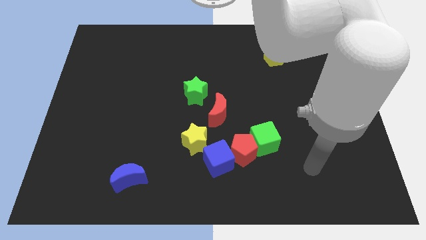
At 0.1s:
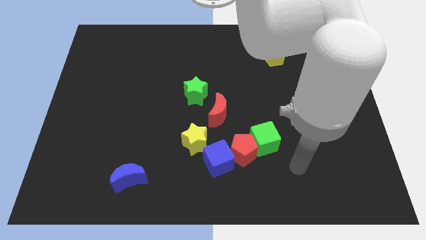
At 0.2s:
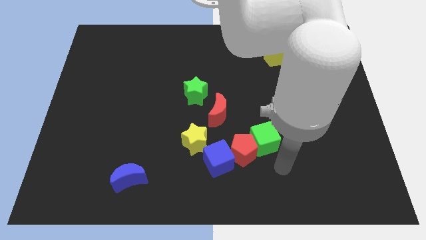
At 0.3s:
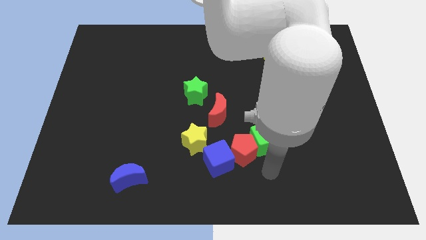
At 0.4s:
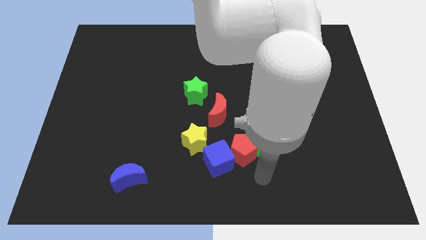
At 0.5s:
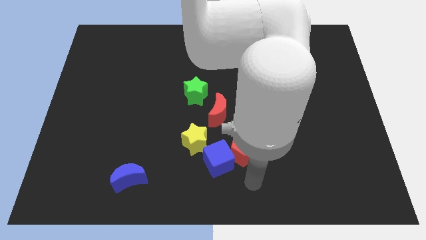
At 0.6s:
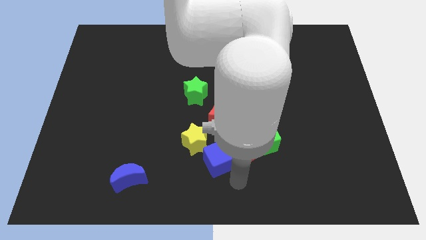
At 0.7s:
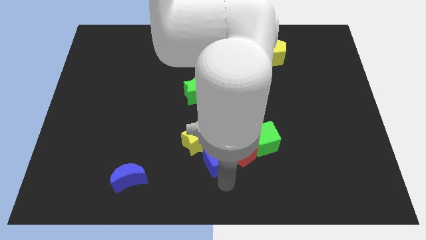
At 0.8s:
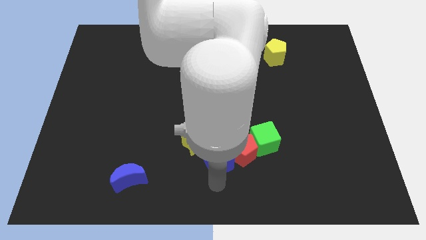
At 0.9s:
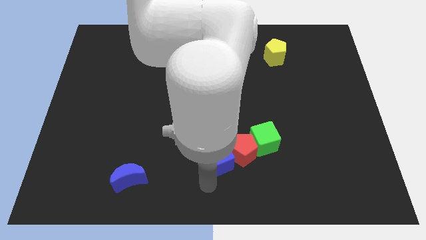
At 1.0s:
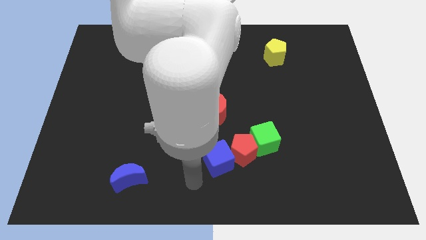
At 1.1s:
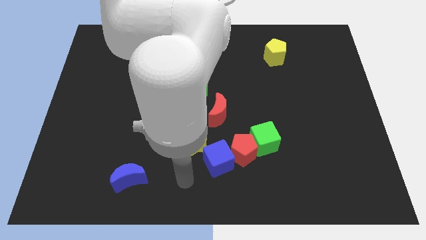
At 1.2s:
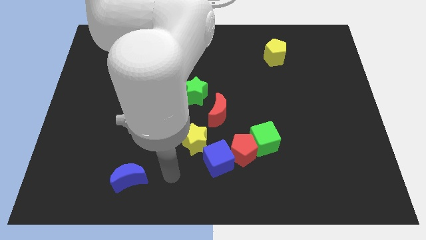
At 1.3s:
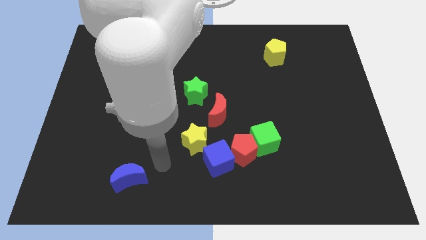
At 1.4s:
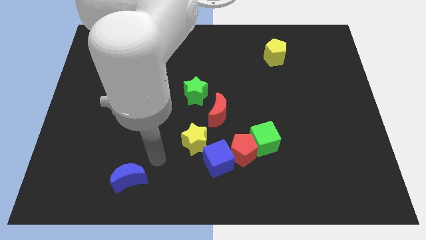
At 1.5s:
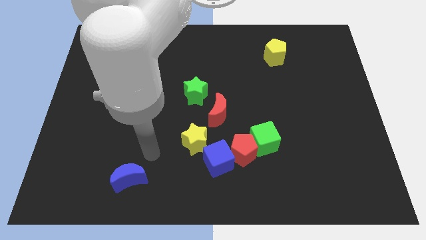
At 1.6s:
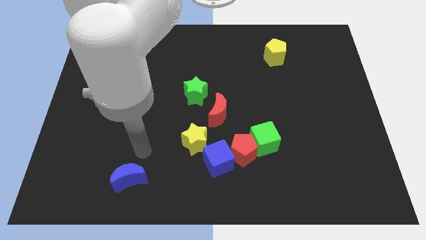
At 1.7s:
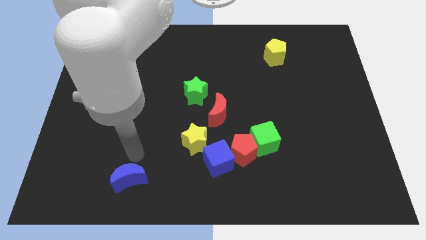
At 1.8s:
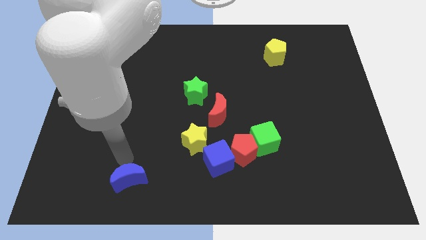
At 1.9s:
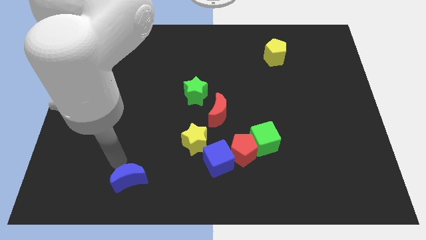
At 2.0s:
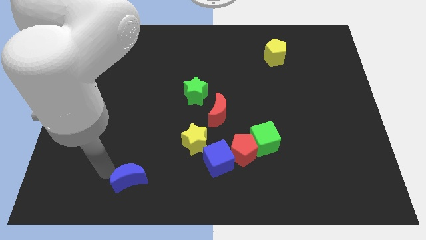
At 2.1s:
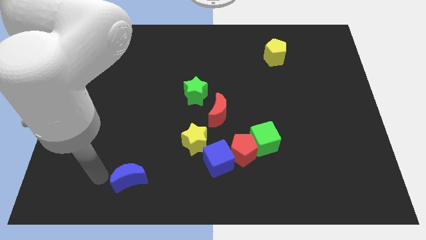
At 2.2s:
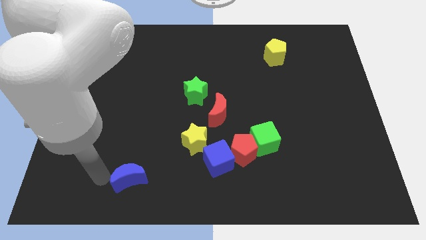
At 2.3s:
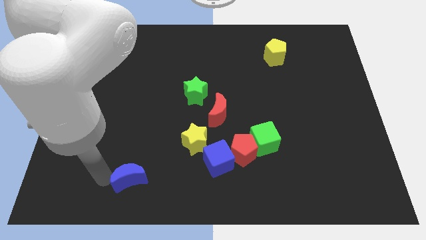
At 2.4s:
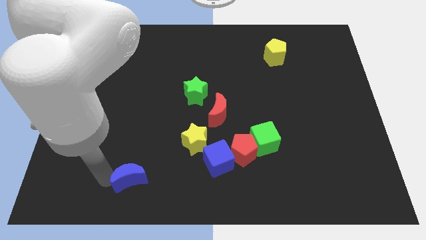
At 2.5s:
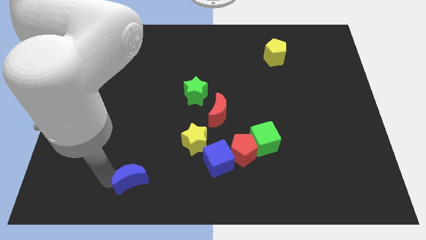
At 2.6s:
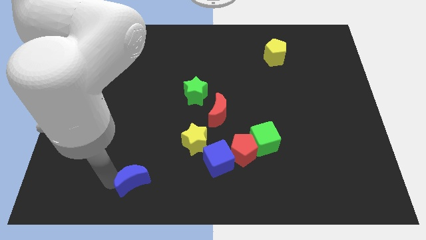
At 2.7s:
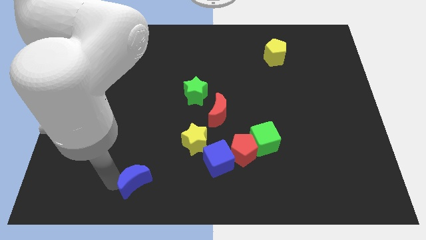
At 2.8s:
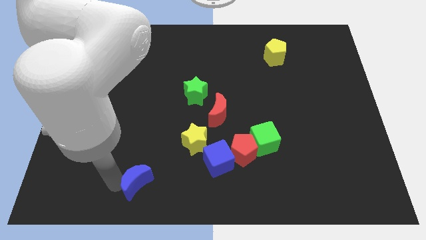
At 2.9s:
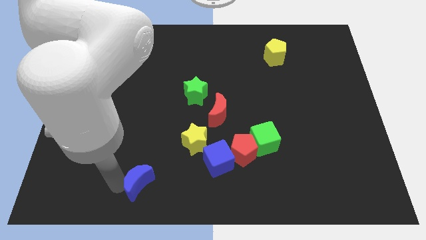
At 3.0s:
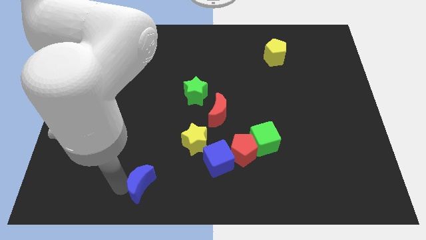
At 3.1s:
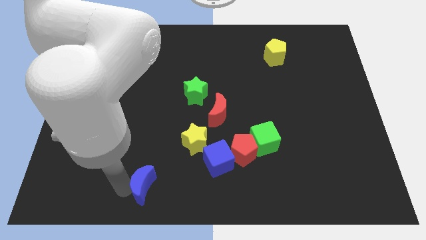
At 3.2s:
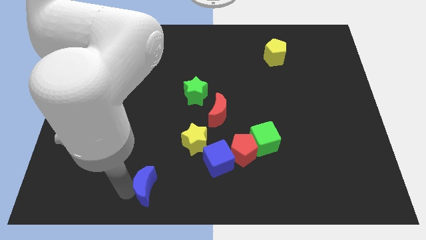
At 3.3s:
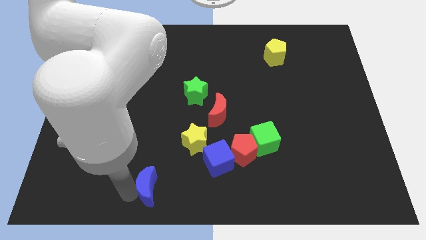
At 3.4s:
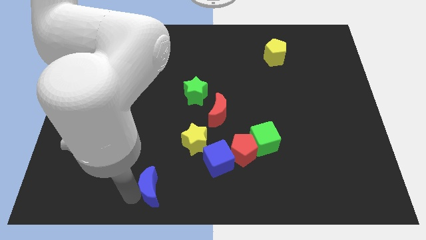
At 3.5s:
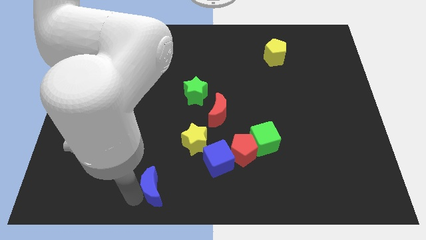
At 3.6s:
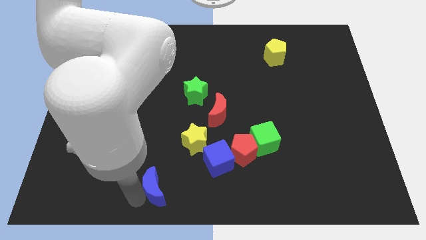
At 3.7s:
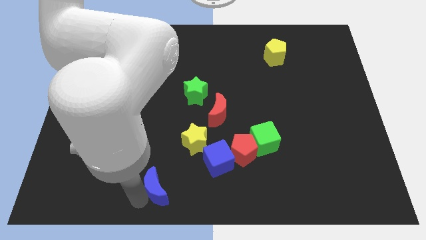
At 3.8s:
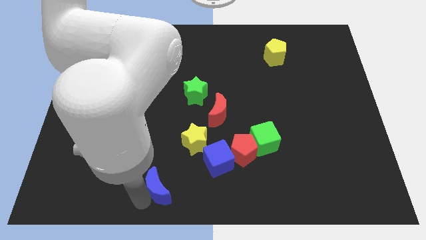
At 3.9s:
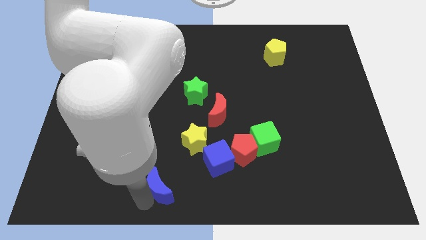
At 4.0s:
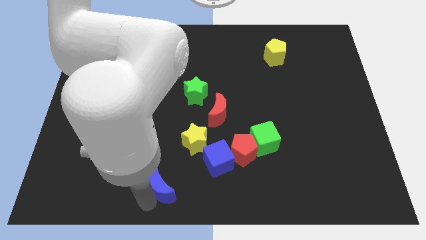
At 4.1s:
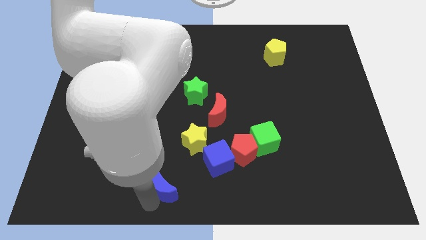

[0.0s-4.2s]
slide the blue moon right a bit

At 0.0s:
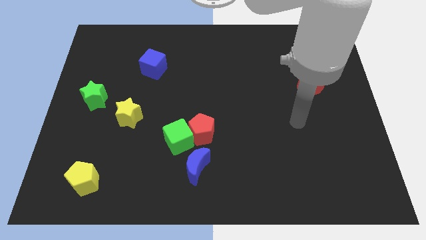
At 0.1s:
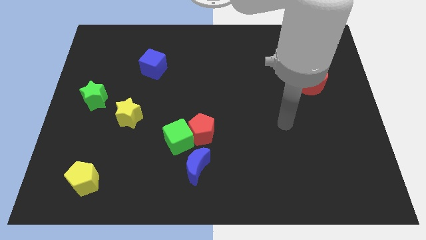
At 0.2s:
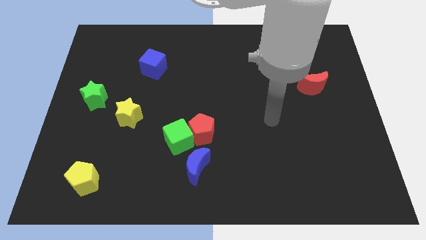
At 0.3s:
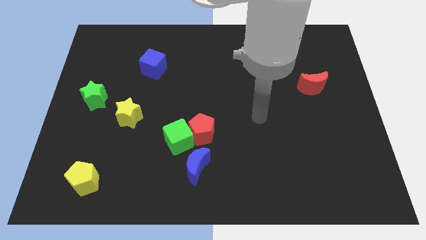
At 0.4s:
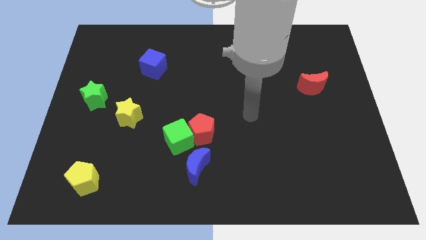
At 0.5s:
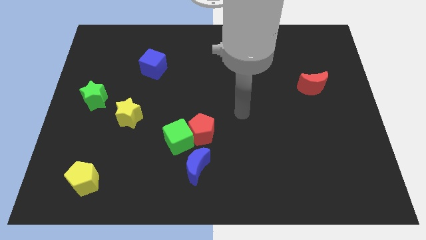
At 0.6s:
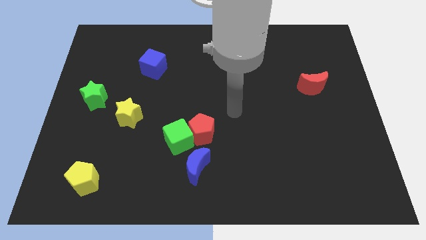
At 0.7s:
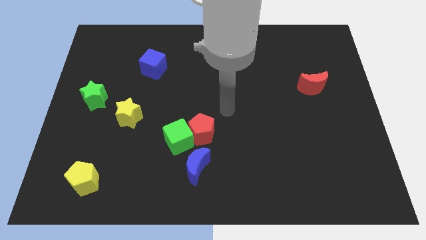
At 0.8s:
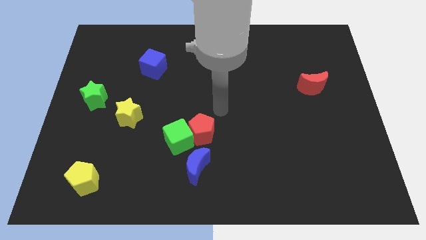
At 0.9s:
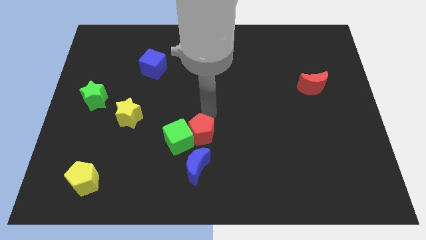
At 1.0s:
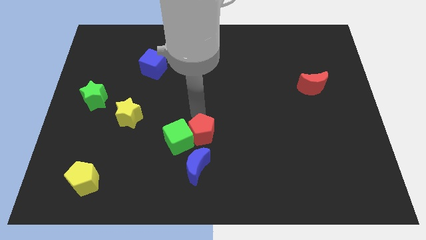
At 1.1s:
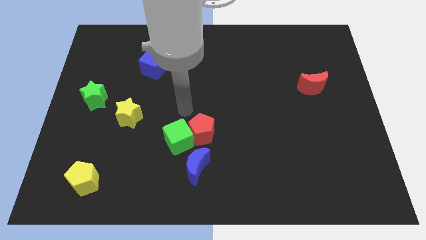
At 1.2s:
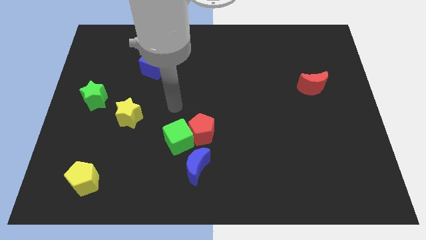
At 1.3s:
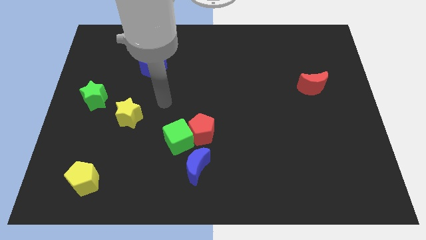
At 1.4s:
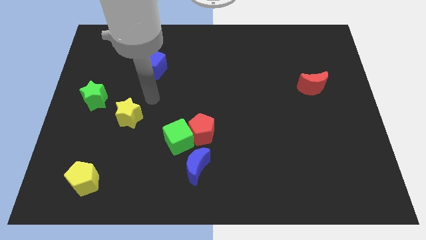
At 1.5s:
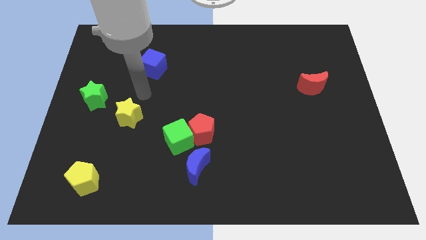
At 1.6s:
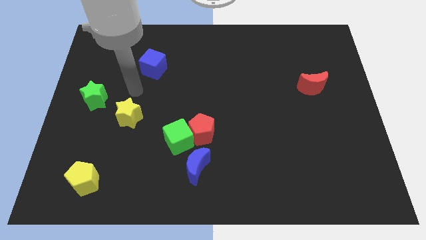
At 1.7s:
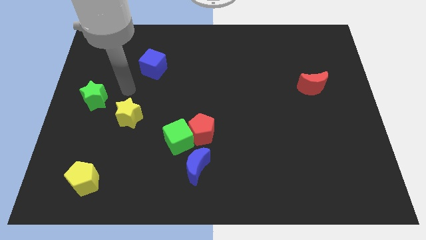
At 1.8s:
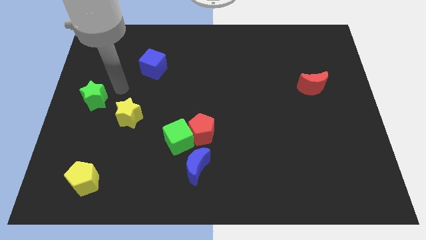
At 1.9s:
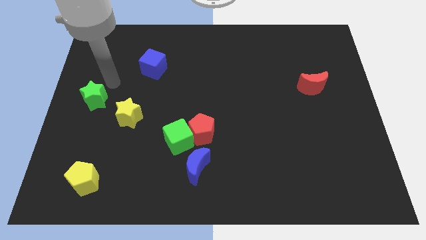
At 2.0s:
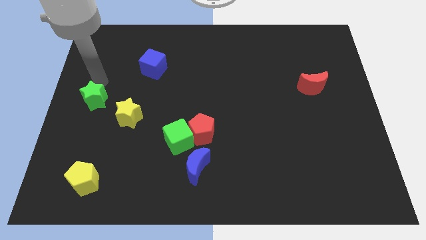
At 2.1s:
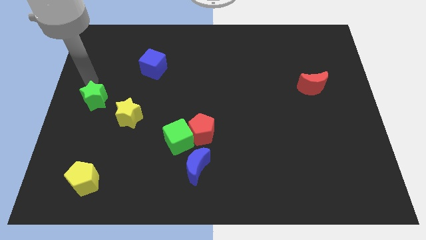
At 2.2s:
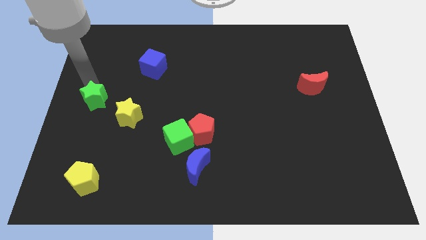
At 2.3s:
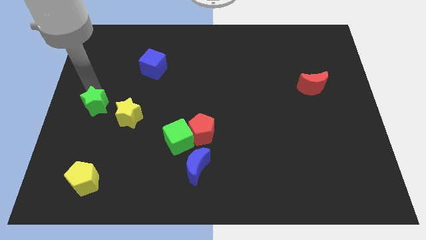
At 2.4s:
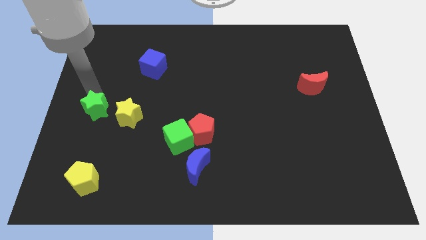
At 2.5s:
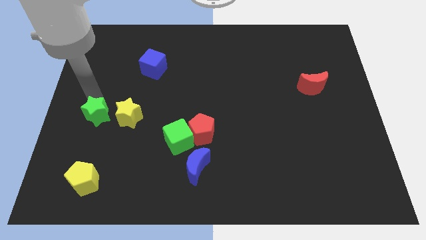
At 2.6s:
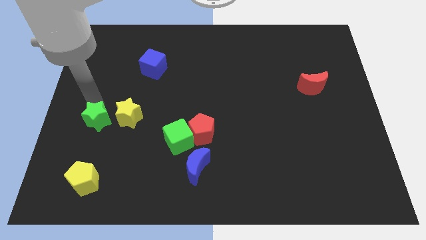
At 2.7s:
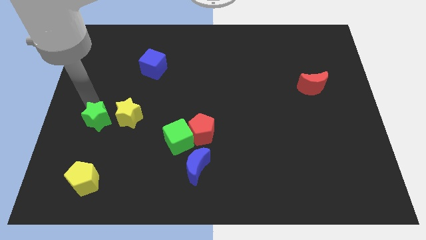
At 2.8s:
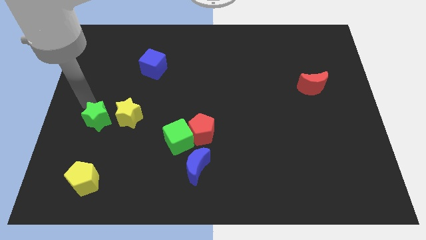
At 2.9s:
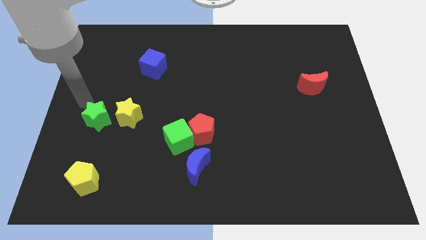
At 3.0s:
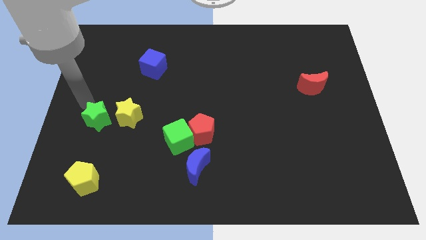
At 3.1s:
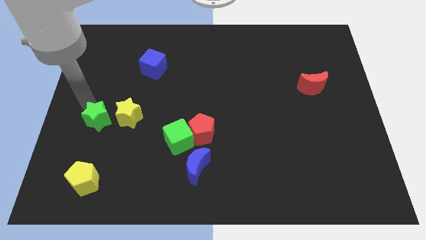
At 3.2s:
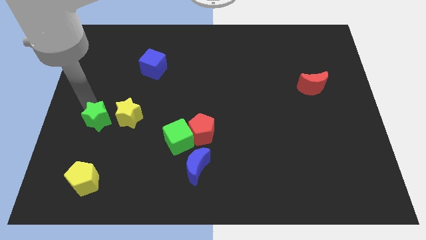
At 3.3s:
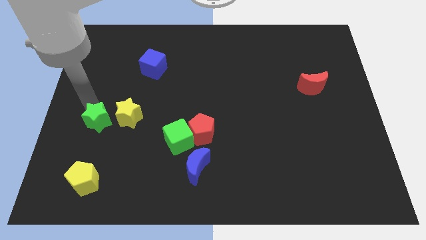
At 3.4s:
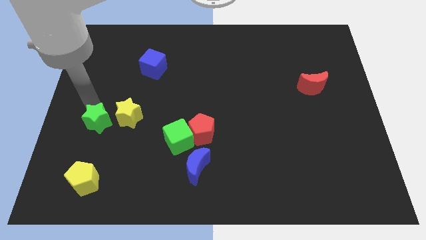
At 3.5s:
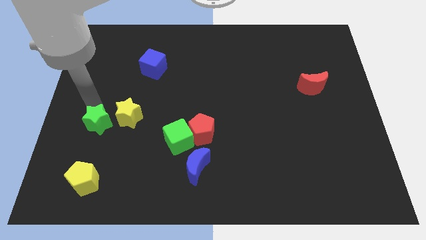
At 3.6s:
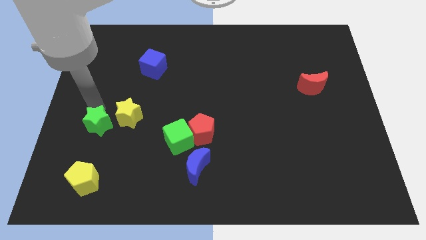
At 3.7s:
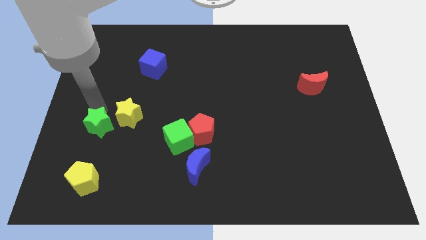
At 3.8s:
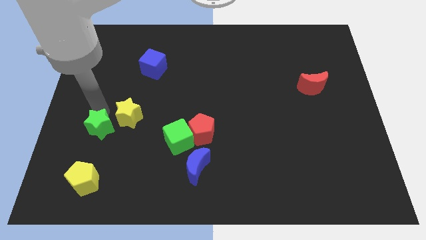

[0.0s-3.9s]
push the green star downwards and then to the right a little
